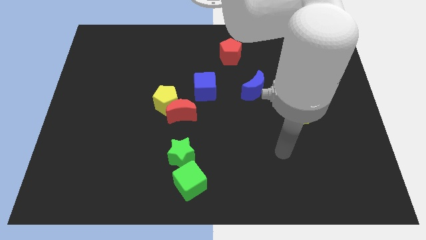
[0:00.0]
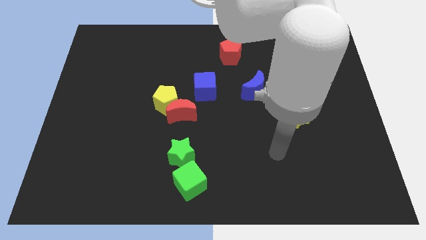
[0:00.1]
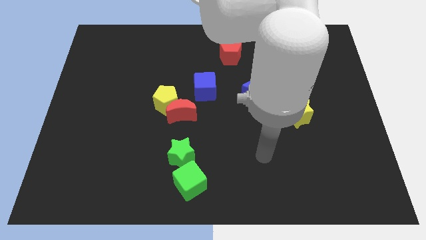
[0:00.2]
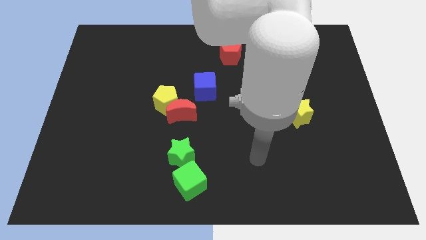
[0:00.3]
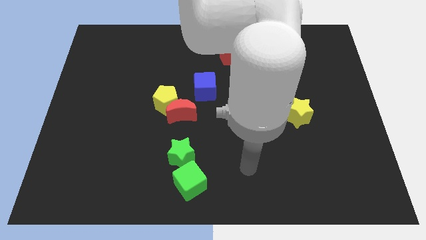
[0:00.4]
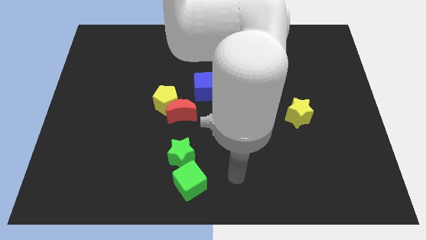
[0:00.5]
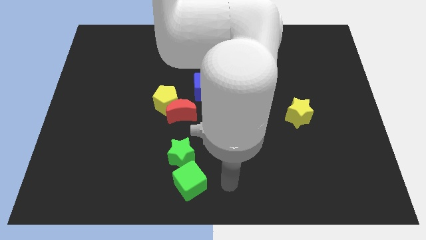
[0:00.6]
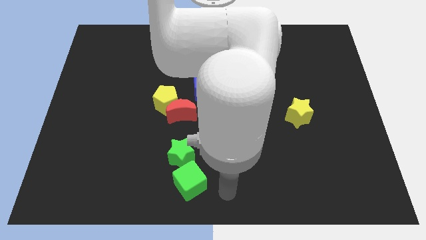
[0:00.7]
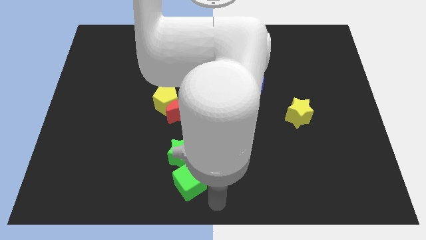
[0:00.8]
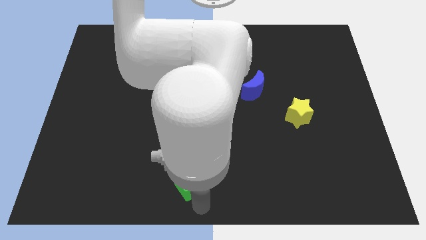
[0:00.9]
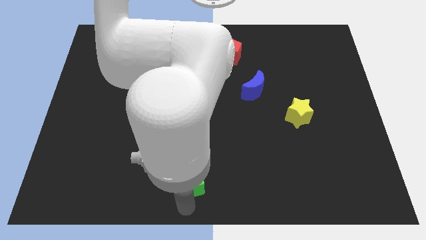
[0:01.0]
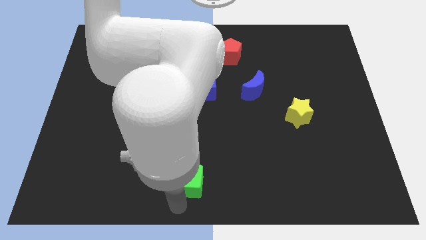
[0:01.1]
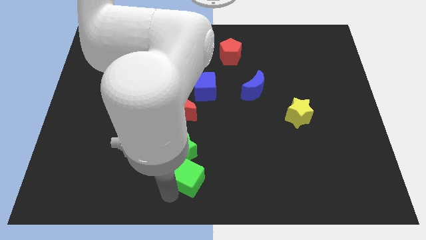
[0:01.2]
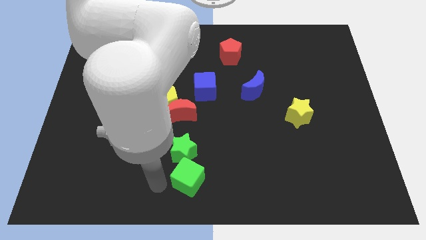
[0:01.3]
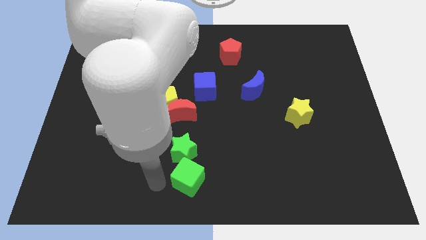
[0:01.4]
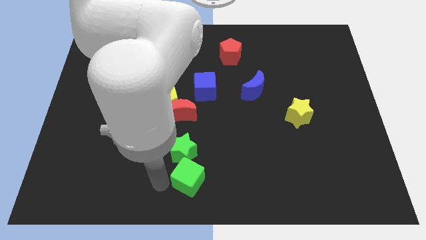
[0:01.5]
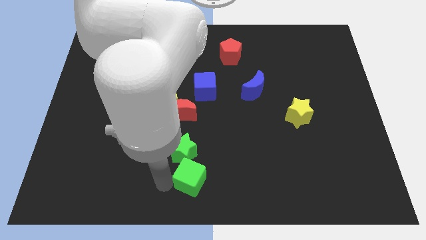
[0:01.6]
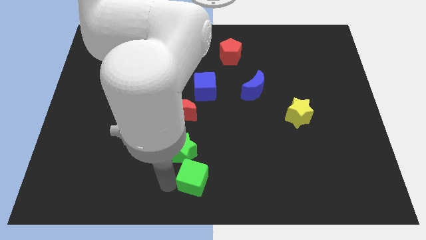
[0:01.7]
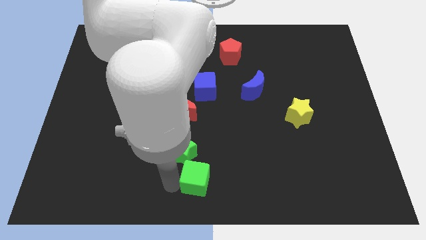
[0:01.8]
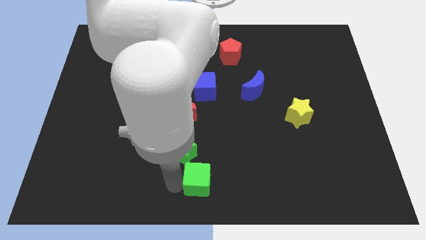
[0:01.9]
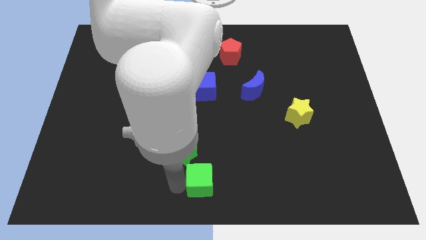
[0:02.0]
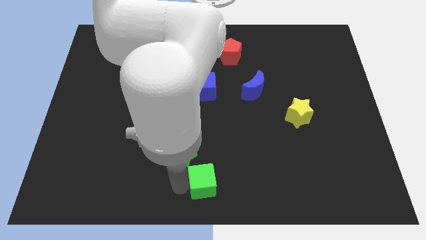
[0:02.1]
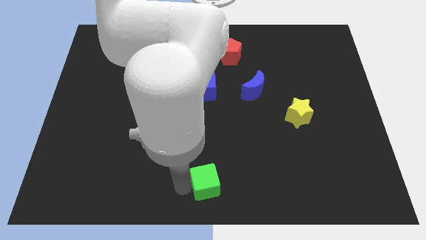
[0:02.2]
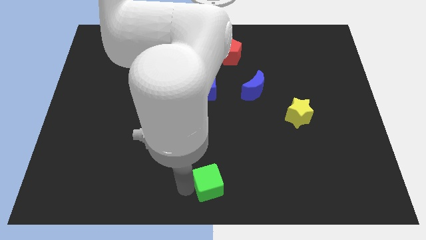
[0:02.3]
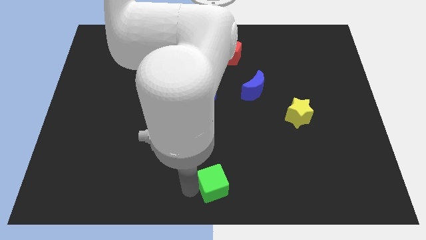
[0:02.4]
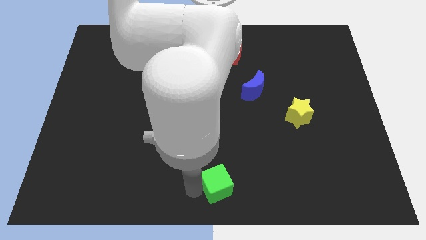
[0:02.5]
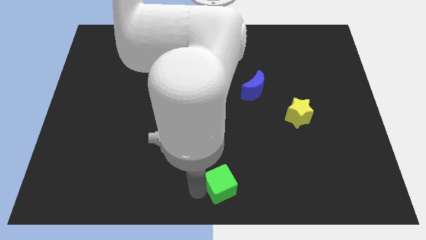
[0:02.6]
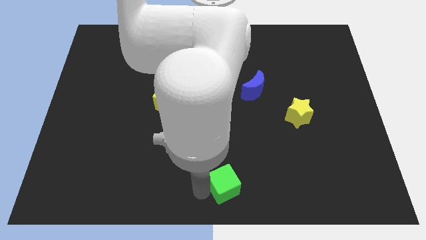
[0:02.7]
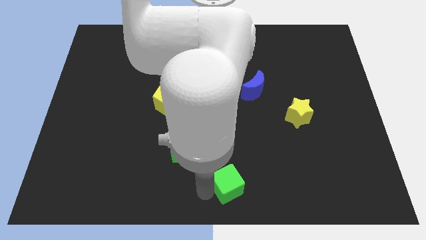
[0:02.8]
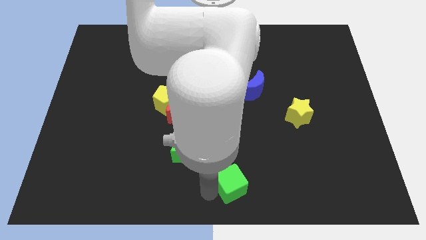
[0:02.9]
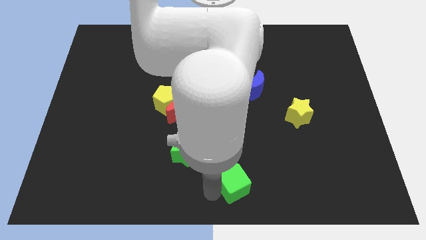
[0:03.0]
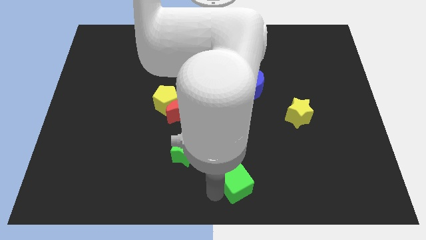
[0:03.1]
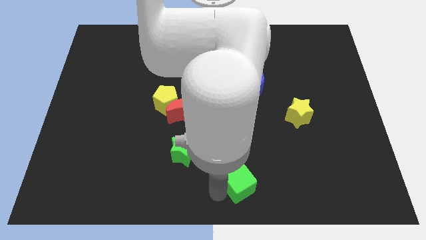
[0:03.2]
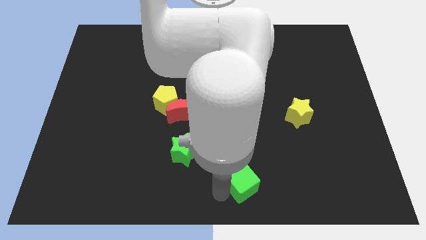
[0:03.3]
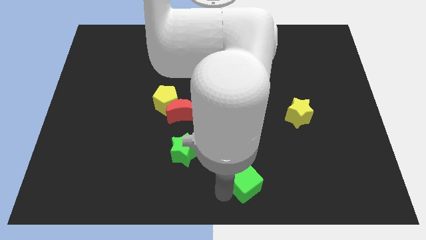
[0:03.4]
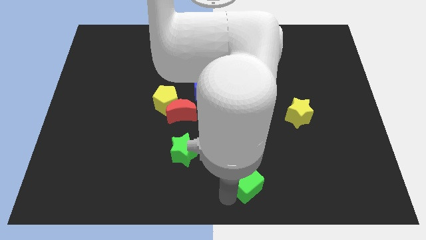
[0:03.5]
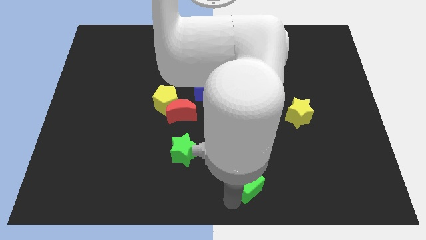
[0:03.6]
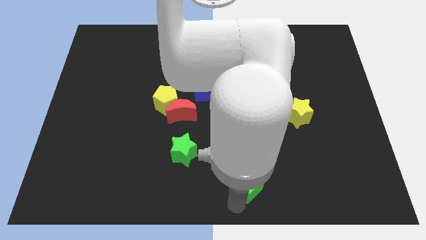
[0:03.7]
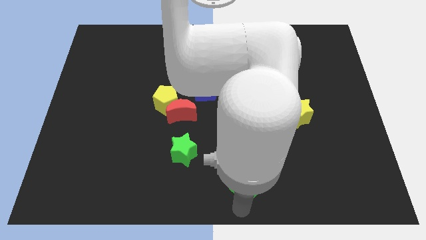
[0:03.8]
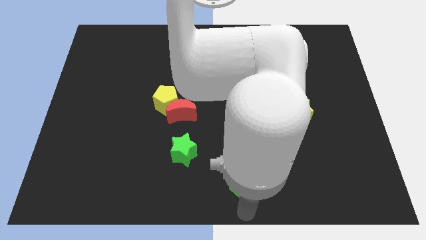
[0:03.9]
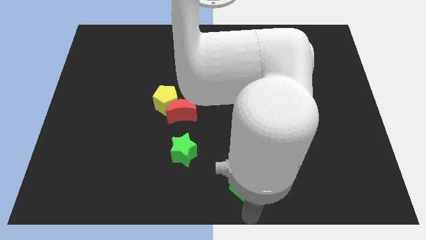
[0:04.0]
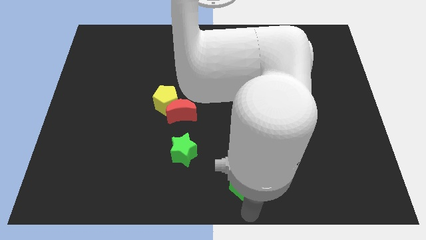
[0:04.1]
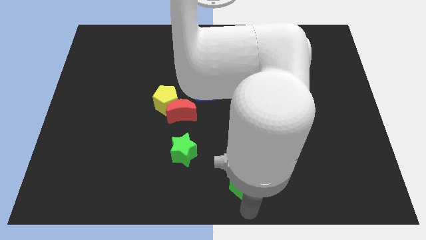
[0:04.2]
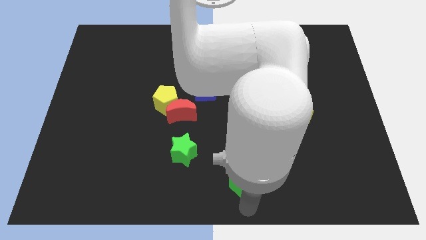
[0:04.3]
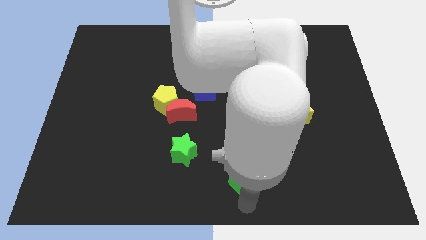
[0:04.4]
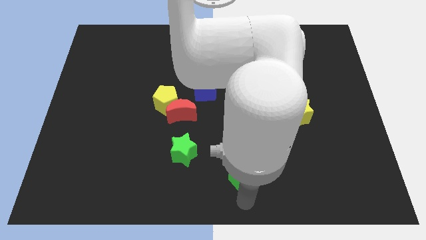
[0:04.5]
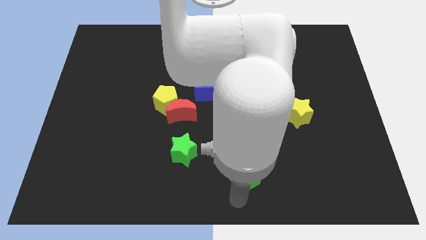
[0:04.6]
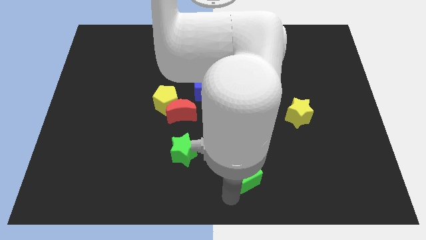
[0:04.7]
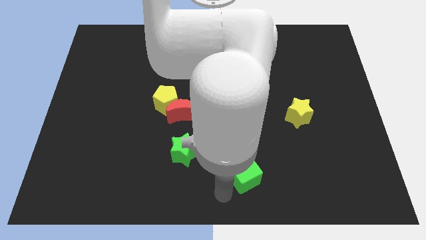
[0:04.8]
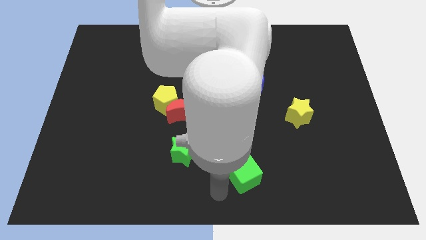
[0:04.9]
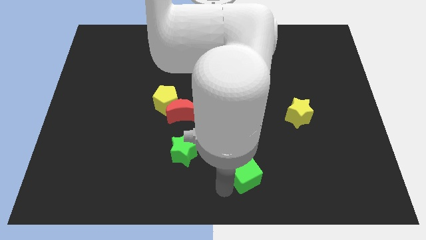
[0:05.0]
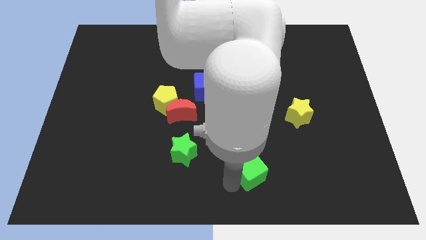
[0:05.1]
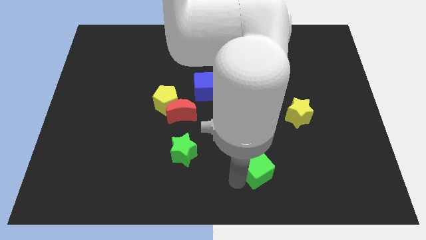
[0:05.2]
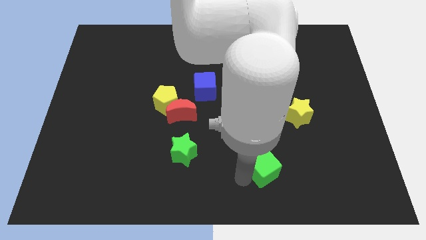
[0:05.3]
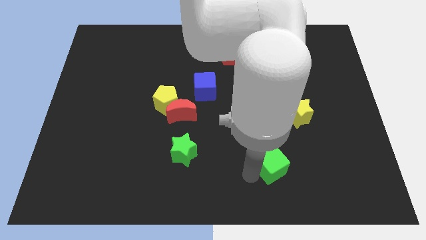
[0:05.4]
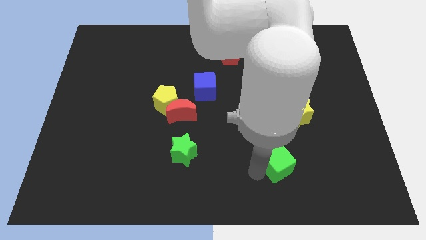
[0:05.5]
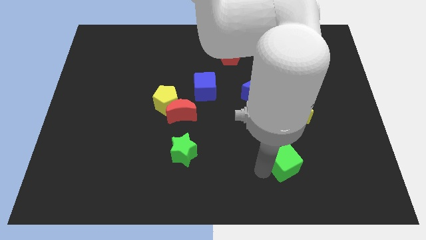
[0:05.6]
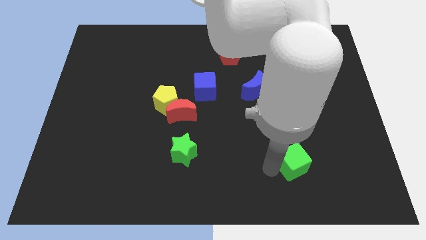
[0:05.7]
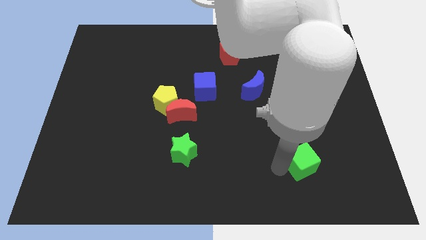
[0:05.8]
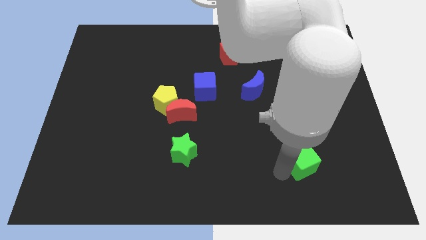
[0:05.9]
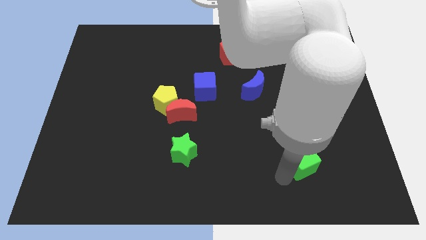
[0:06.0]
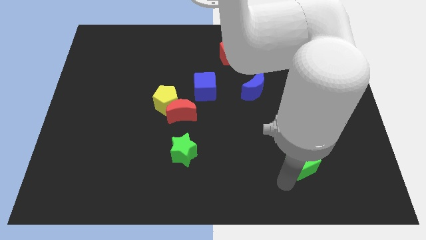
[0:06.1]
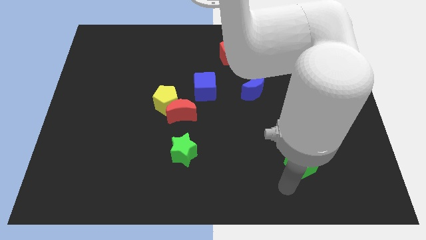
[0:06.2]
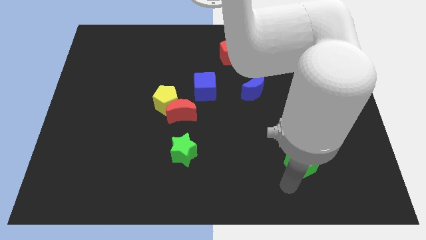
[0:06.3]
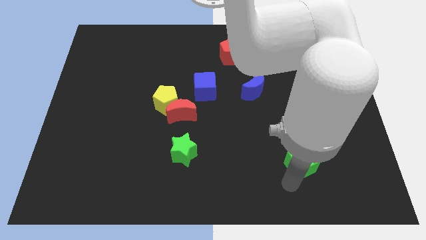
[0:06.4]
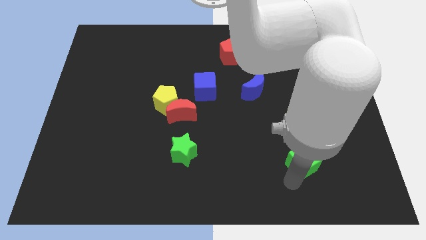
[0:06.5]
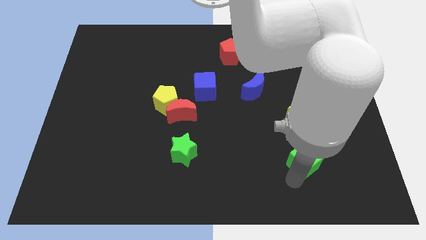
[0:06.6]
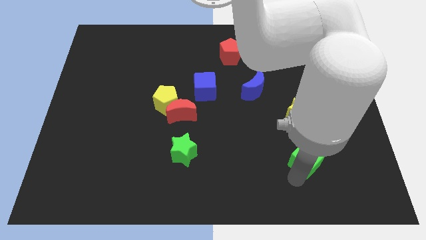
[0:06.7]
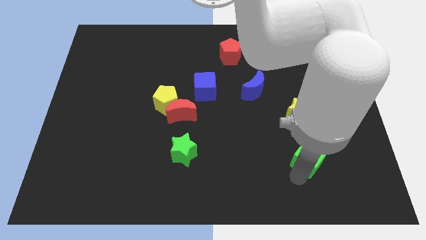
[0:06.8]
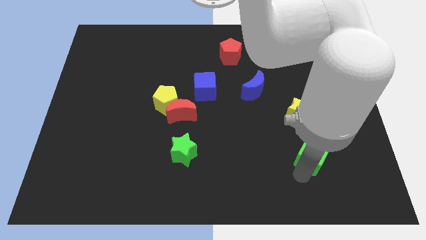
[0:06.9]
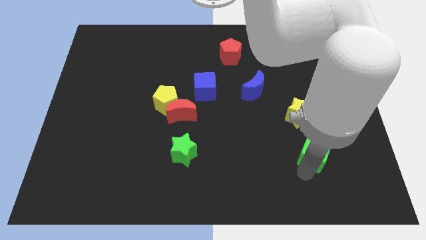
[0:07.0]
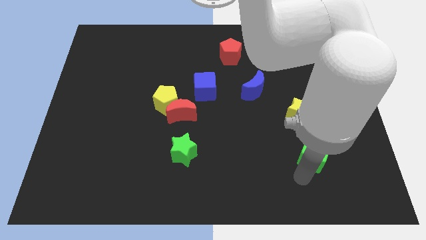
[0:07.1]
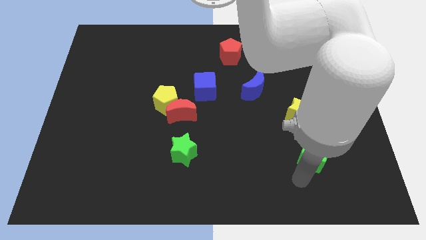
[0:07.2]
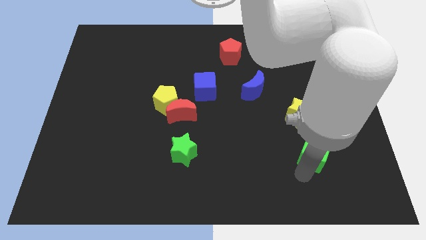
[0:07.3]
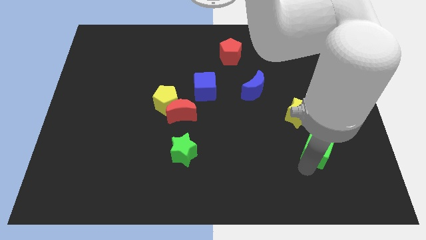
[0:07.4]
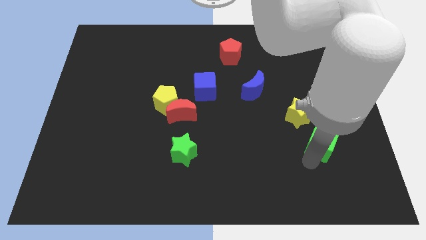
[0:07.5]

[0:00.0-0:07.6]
move the green cube diagonally down and to the right of the yellow star
